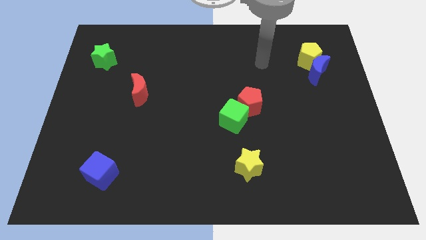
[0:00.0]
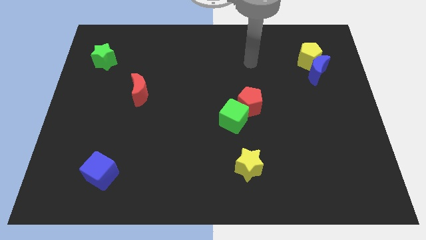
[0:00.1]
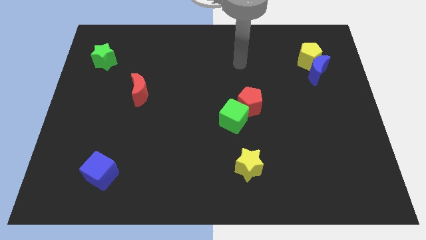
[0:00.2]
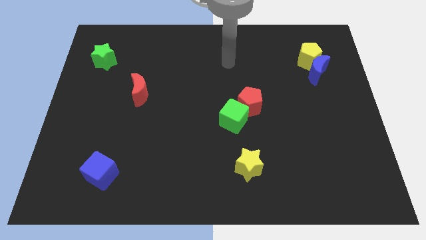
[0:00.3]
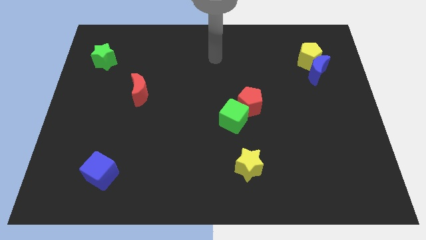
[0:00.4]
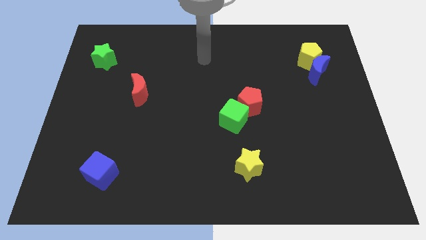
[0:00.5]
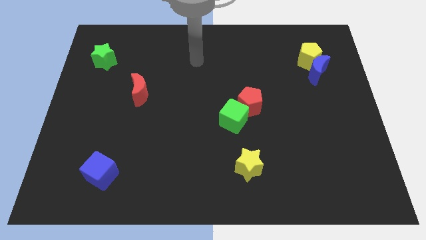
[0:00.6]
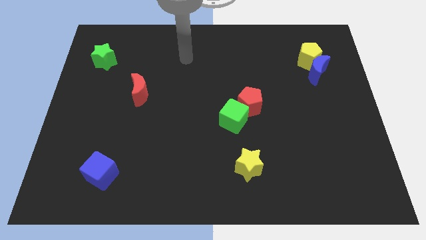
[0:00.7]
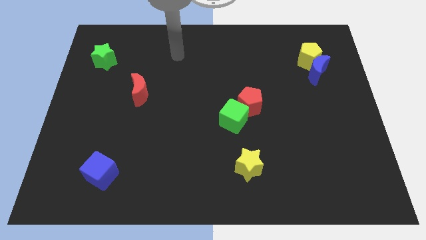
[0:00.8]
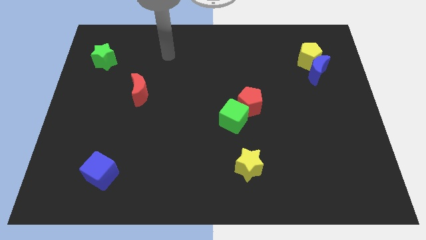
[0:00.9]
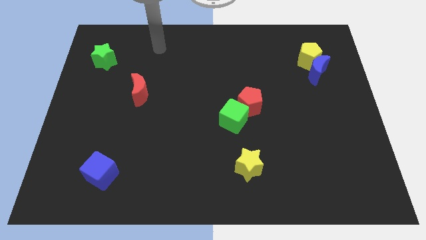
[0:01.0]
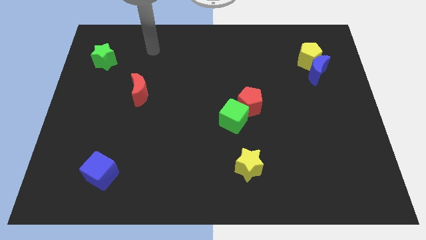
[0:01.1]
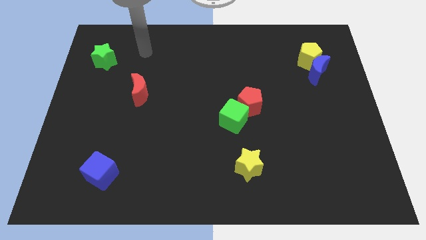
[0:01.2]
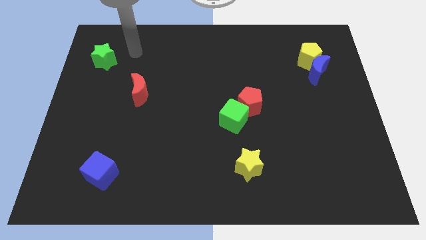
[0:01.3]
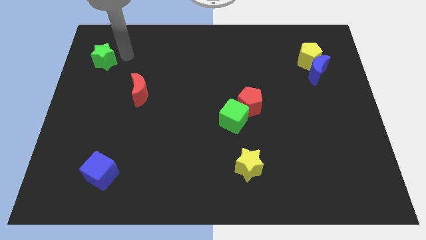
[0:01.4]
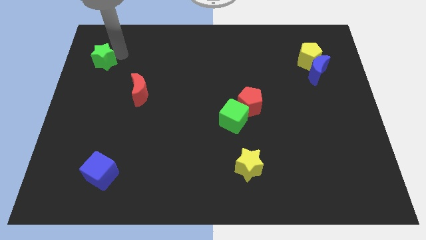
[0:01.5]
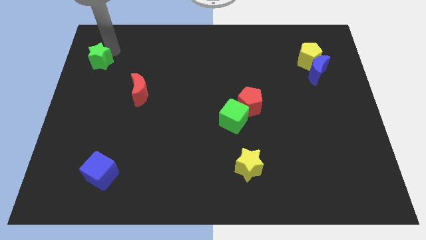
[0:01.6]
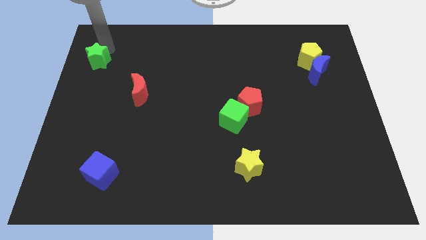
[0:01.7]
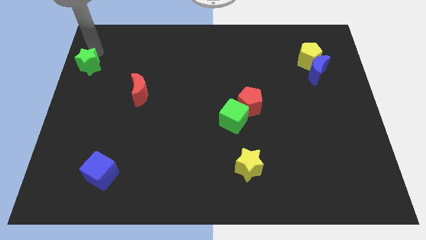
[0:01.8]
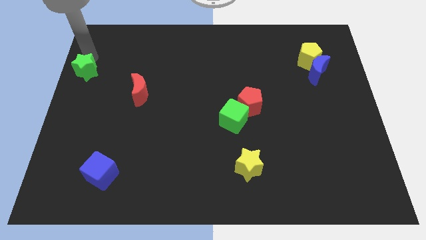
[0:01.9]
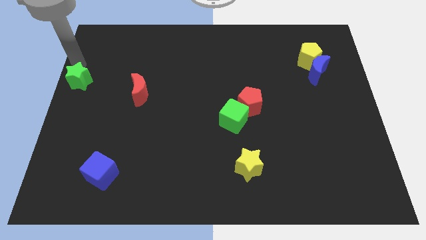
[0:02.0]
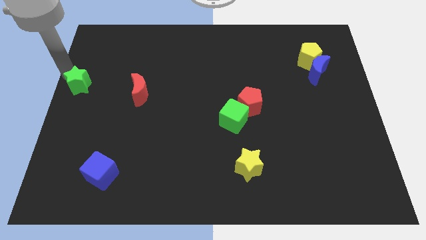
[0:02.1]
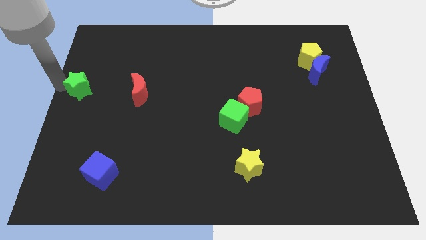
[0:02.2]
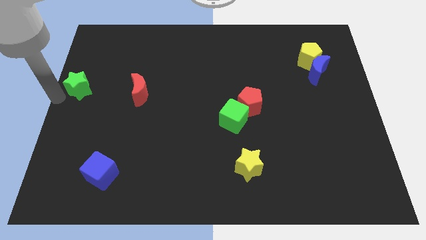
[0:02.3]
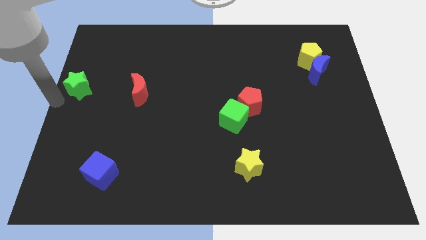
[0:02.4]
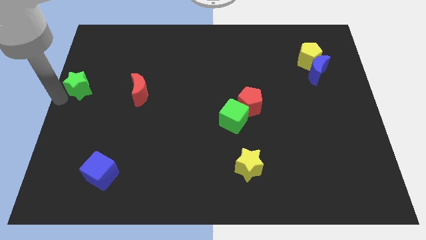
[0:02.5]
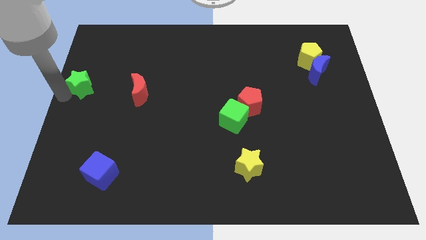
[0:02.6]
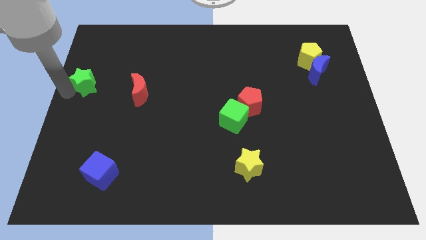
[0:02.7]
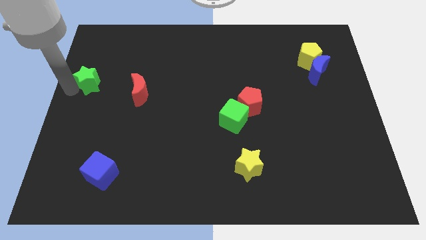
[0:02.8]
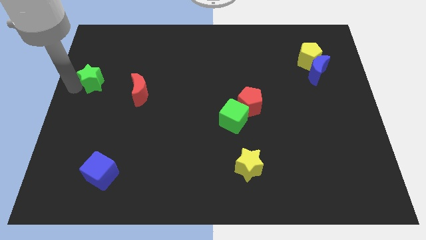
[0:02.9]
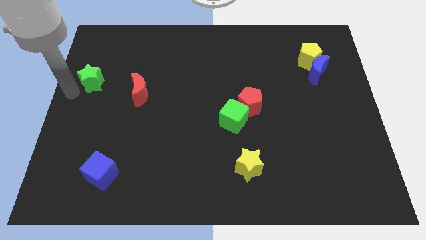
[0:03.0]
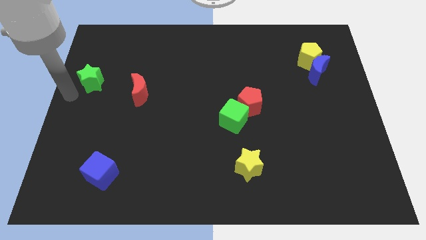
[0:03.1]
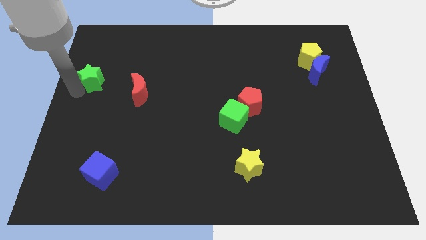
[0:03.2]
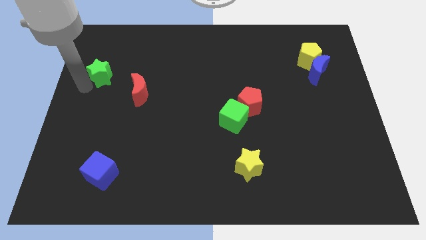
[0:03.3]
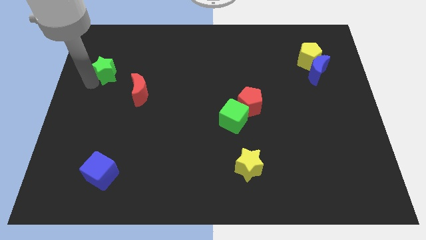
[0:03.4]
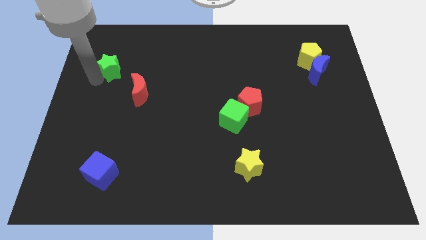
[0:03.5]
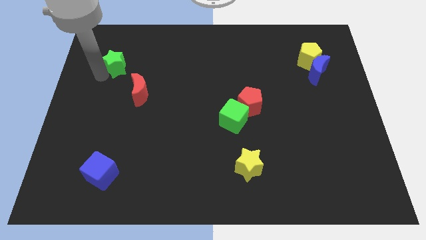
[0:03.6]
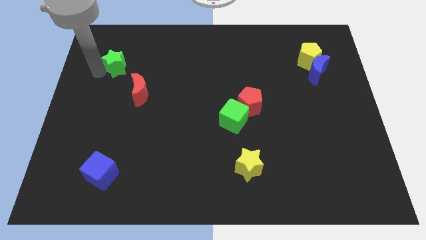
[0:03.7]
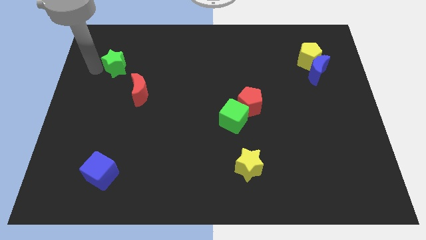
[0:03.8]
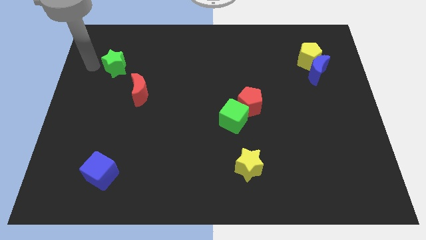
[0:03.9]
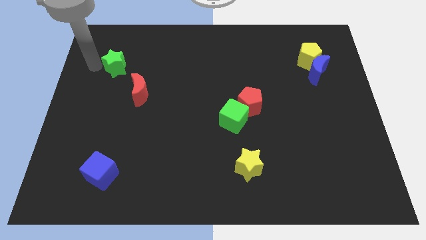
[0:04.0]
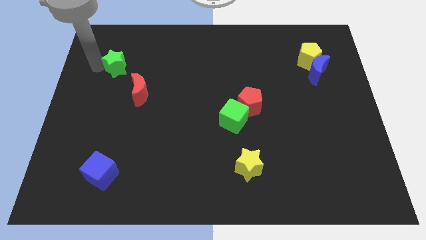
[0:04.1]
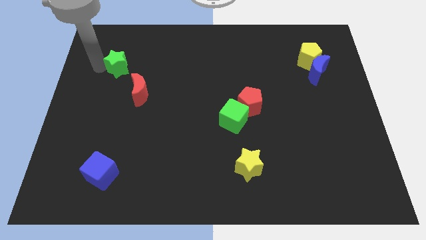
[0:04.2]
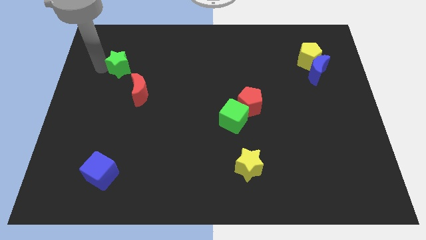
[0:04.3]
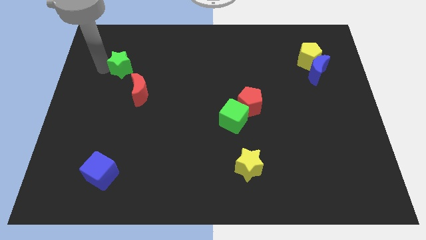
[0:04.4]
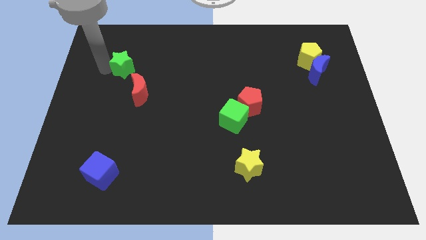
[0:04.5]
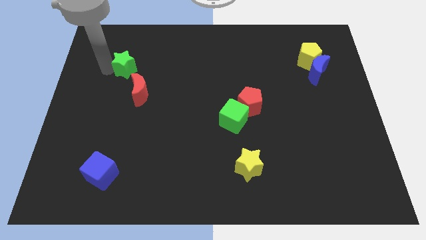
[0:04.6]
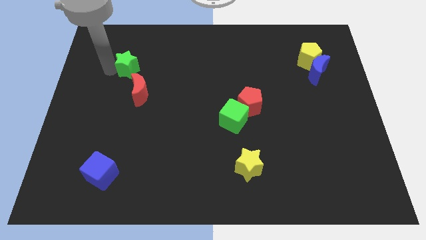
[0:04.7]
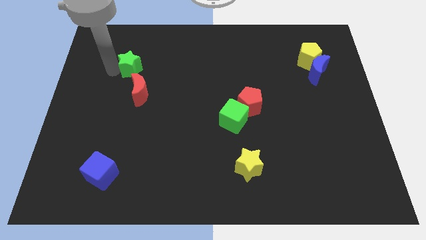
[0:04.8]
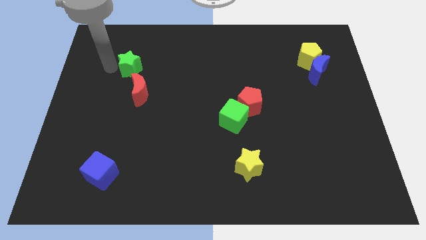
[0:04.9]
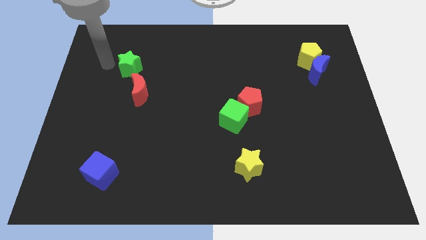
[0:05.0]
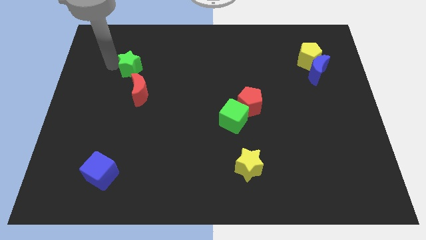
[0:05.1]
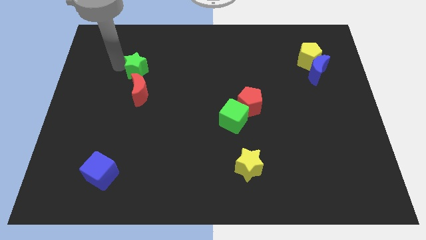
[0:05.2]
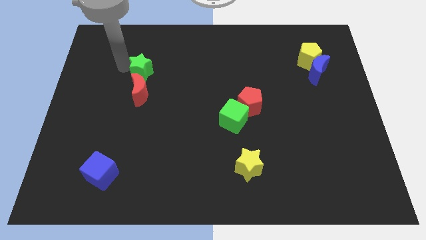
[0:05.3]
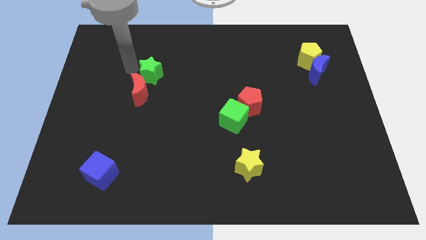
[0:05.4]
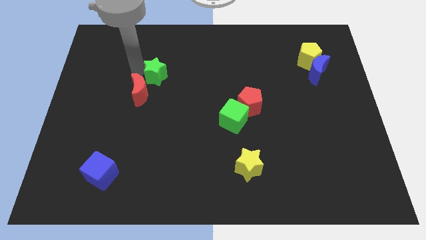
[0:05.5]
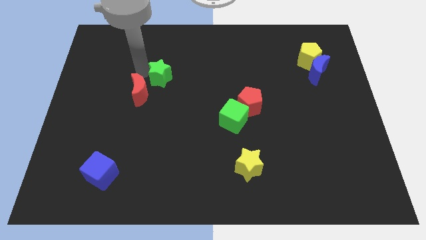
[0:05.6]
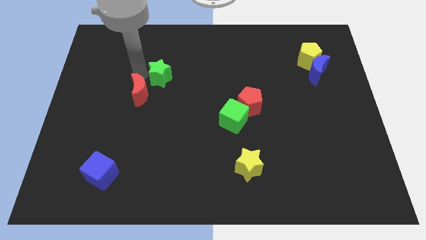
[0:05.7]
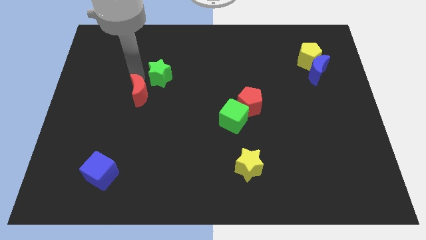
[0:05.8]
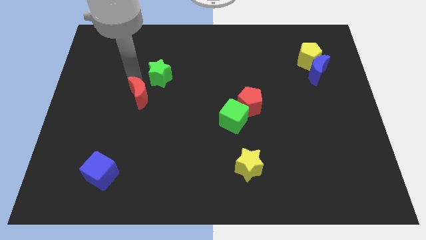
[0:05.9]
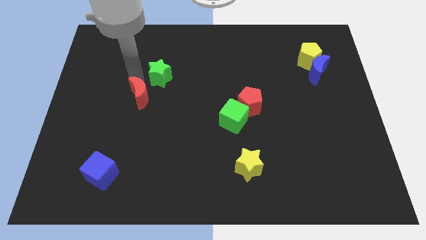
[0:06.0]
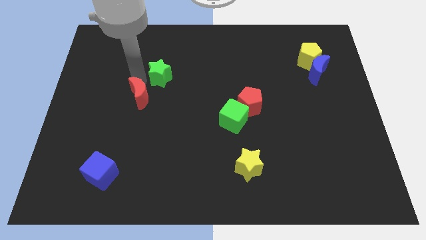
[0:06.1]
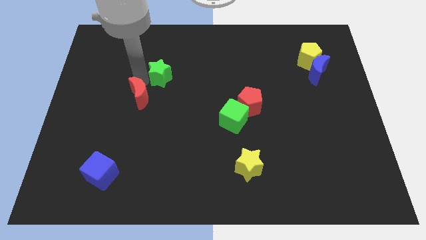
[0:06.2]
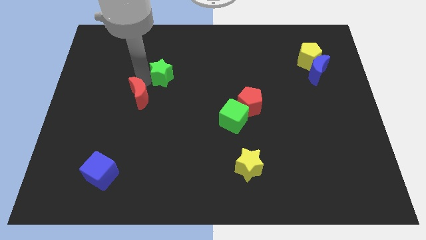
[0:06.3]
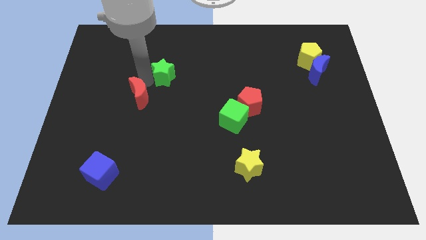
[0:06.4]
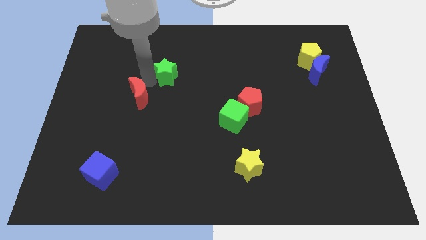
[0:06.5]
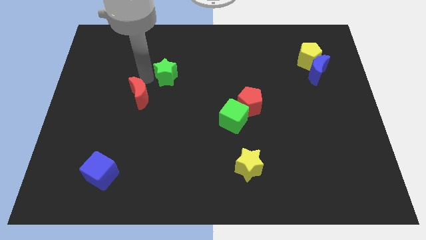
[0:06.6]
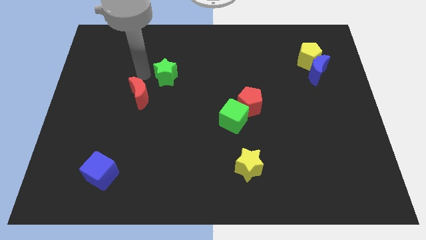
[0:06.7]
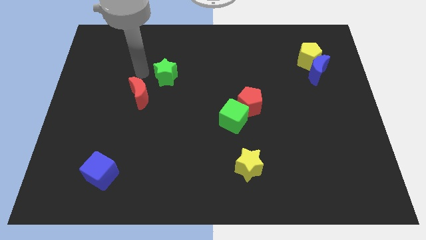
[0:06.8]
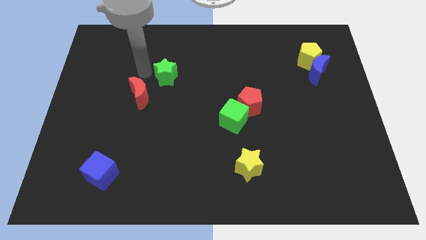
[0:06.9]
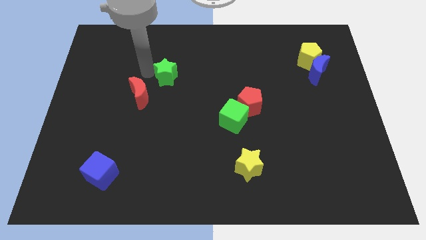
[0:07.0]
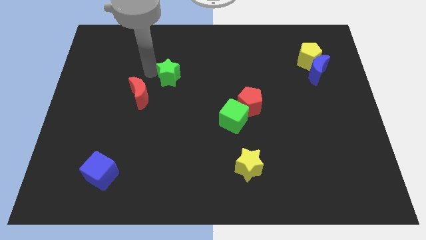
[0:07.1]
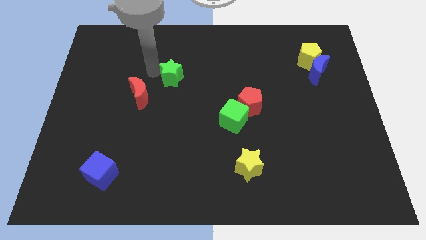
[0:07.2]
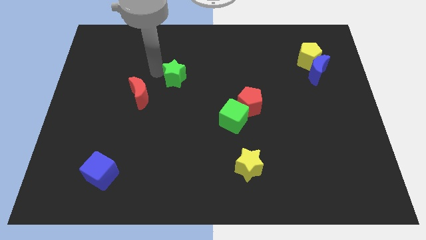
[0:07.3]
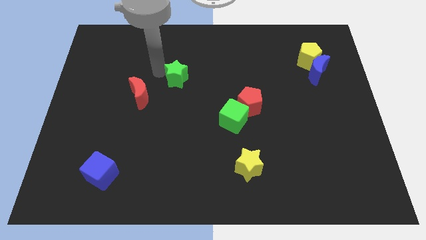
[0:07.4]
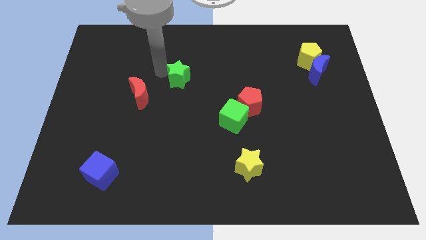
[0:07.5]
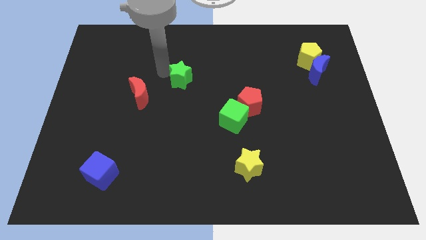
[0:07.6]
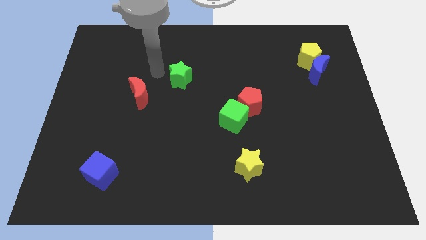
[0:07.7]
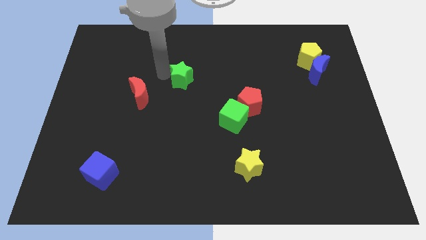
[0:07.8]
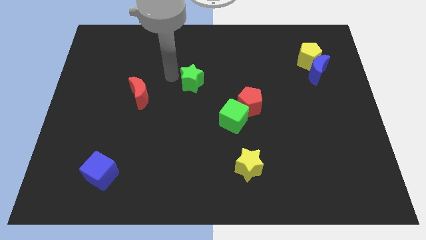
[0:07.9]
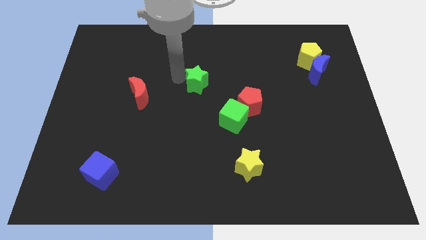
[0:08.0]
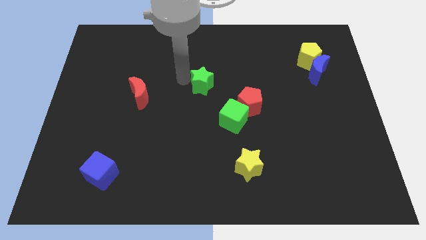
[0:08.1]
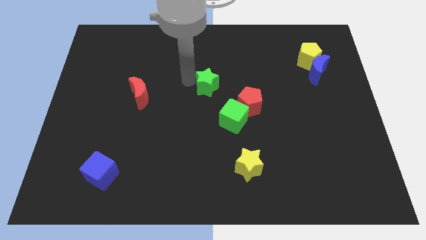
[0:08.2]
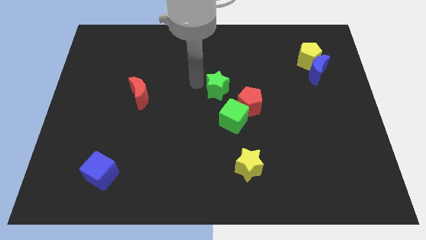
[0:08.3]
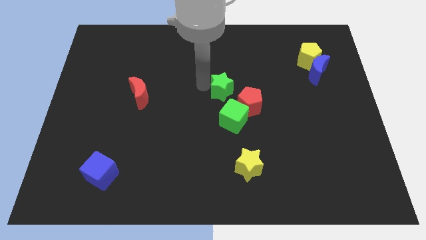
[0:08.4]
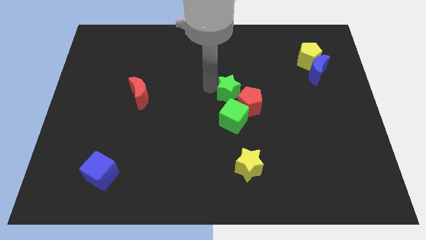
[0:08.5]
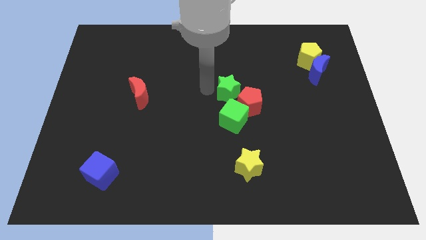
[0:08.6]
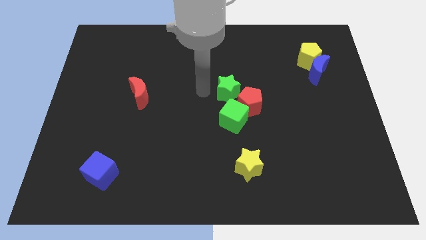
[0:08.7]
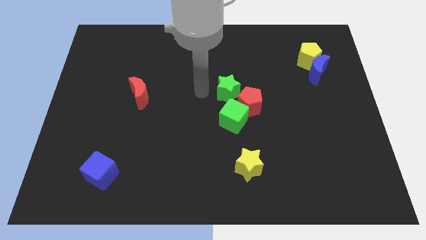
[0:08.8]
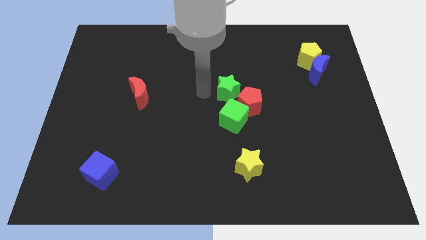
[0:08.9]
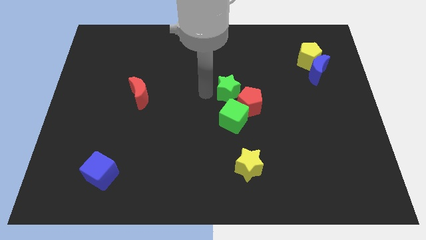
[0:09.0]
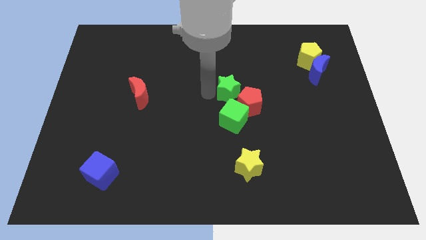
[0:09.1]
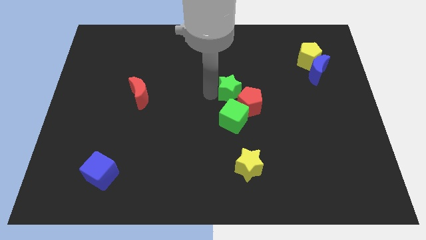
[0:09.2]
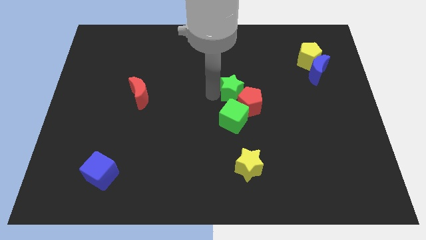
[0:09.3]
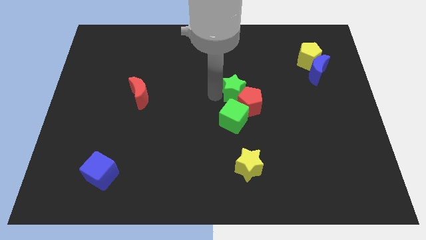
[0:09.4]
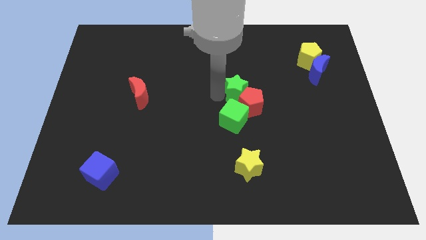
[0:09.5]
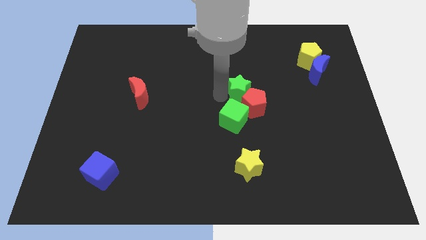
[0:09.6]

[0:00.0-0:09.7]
move the green star to the top right of the green cube
